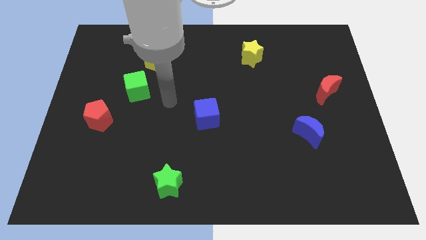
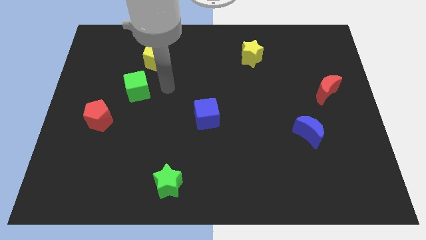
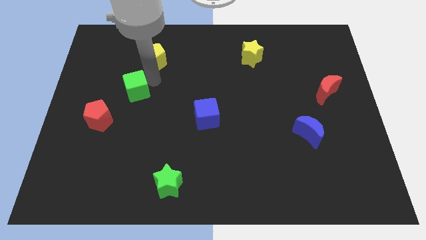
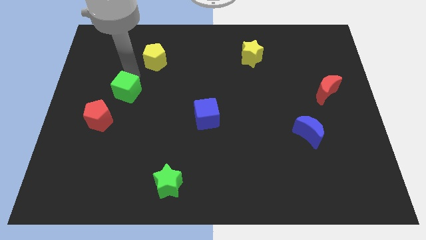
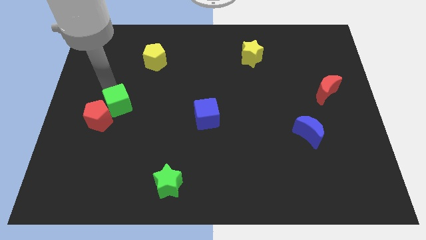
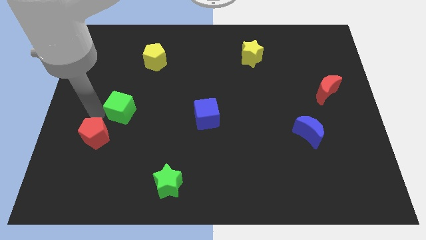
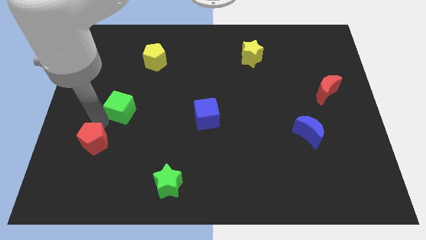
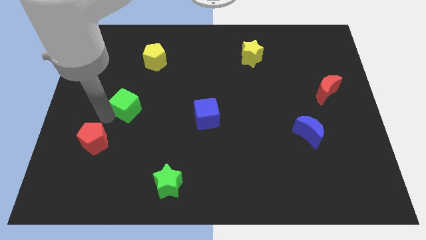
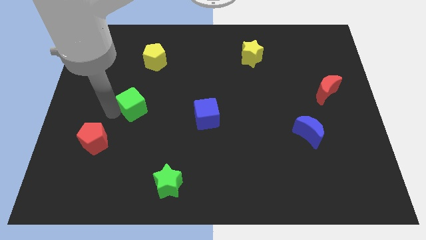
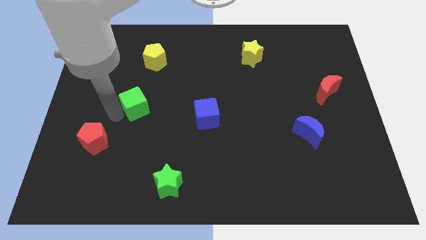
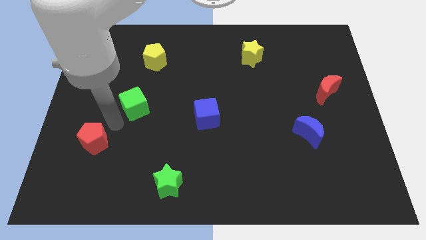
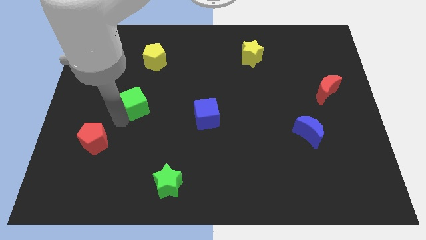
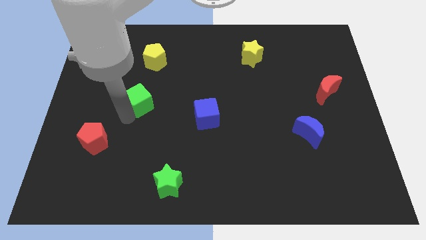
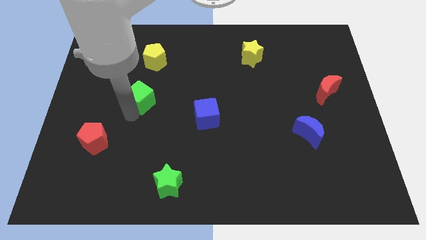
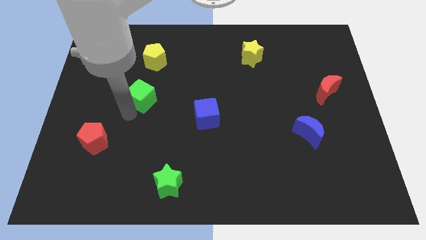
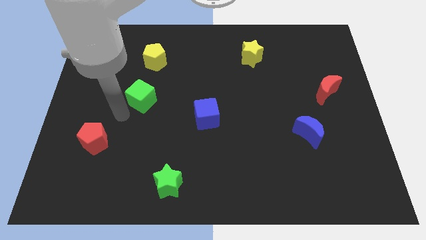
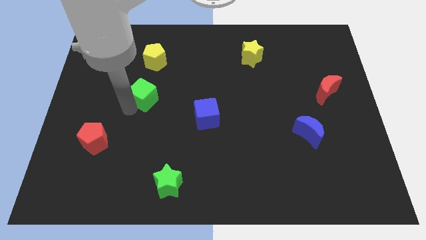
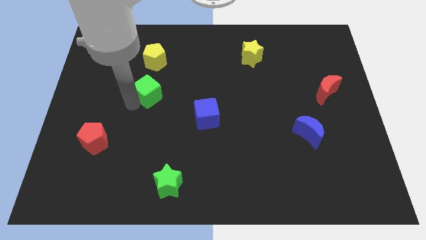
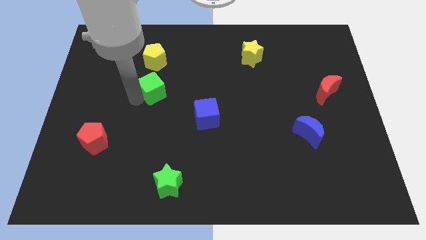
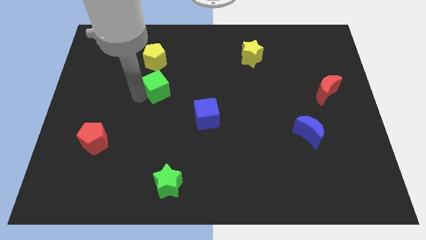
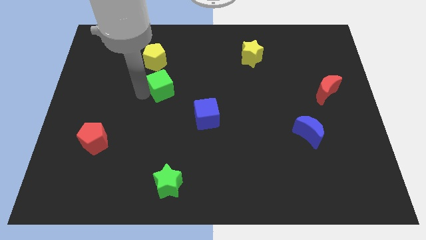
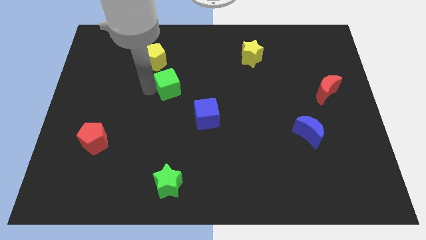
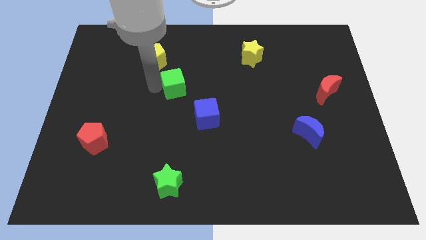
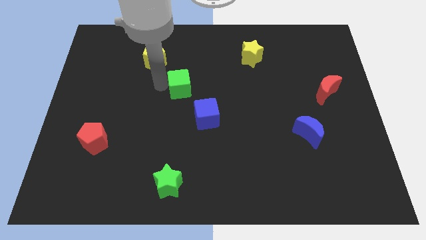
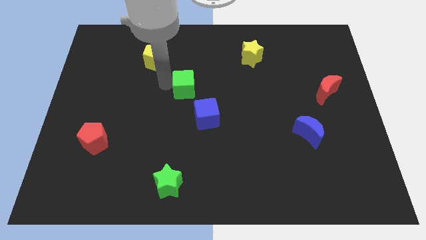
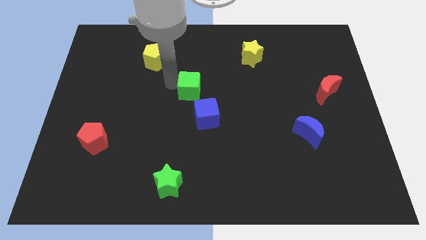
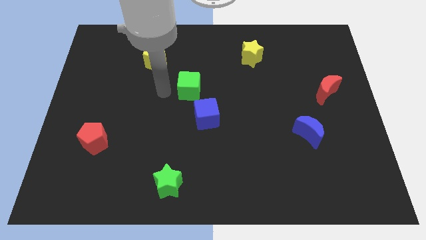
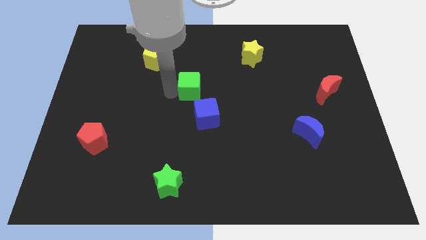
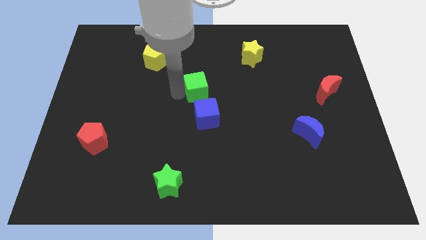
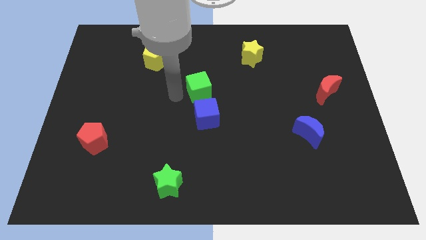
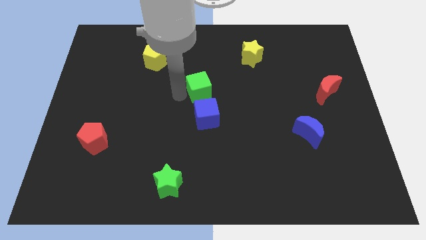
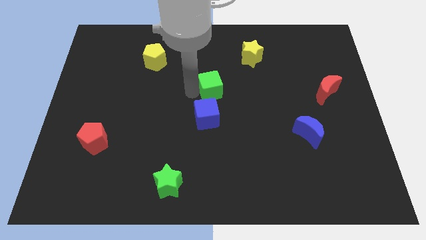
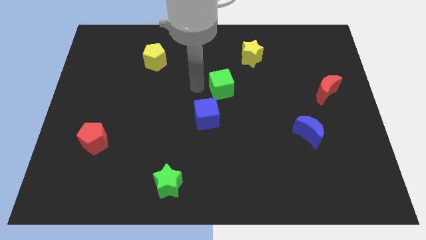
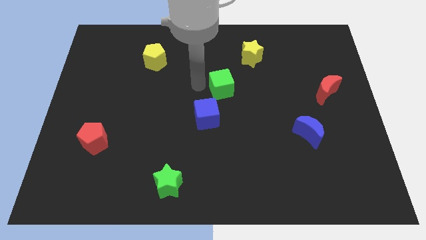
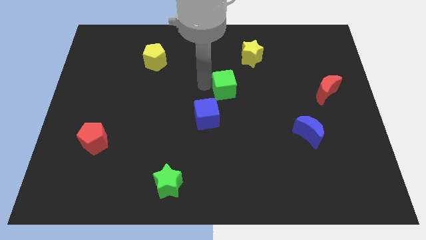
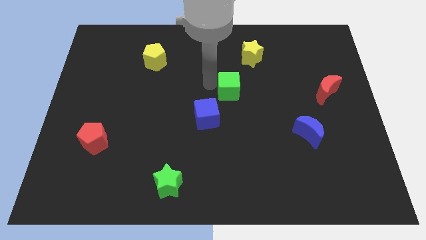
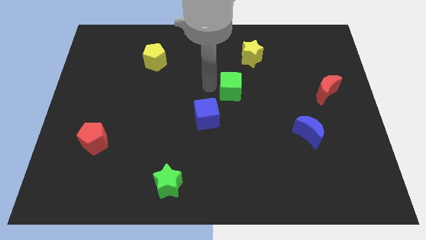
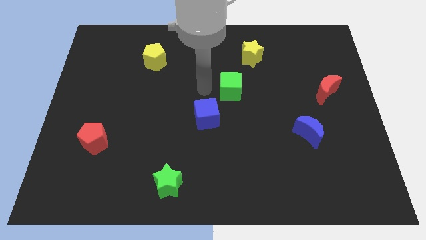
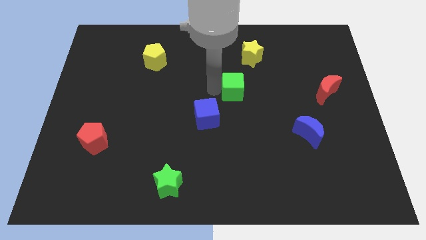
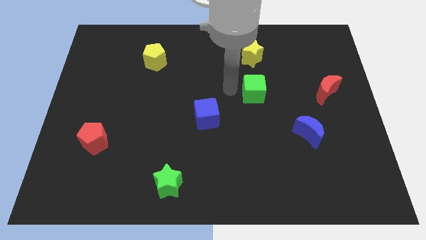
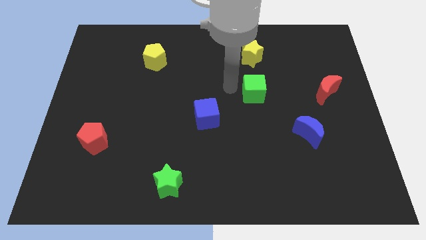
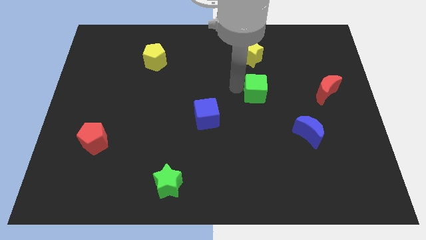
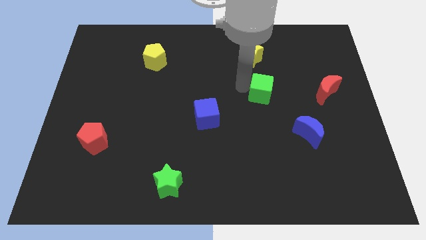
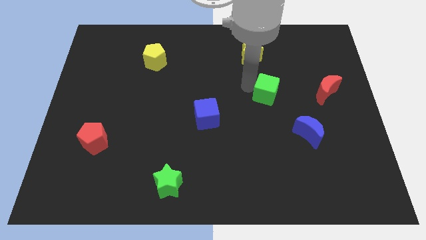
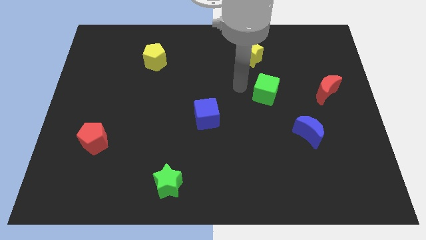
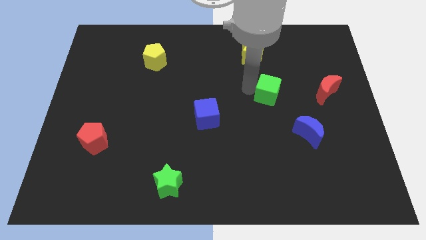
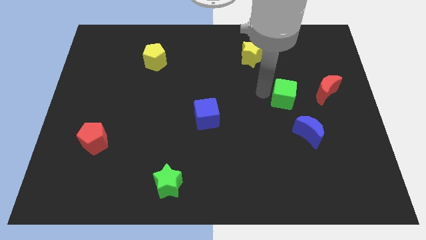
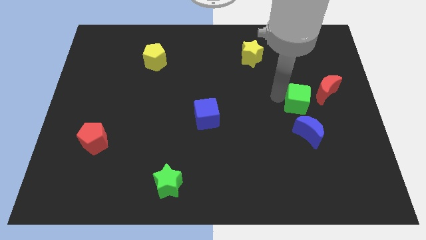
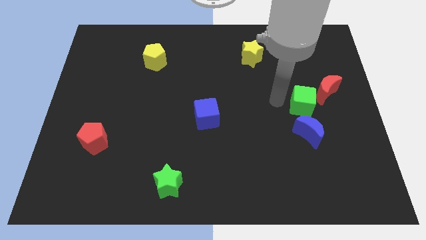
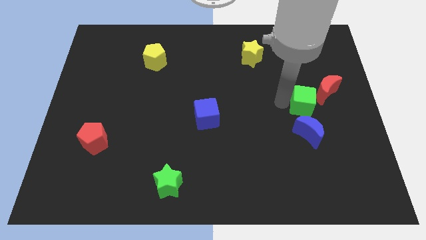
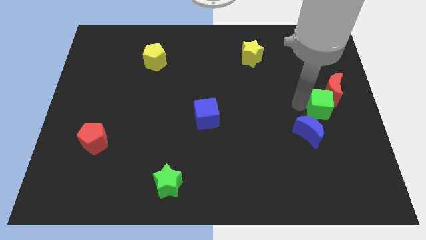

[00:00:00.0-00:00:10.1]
move the green cube to the right side of the board

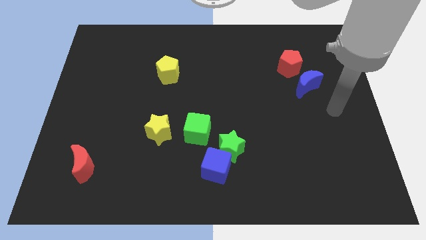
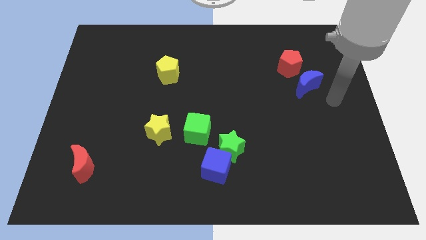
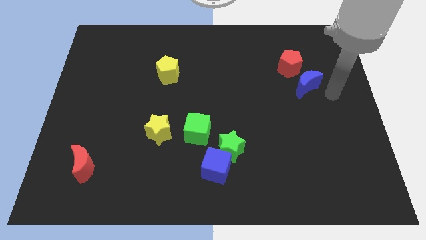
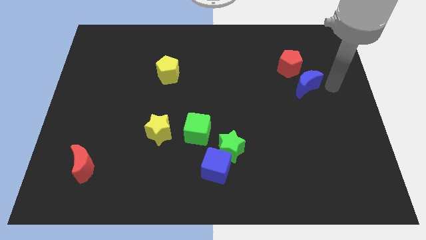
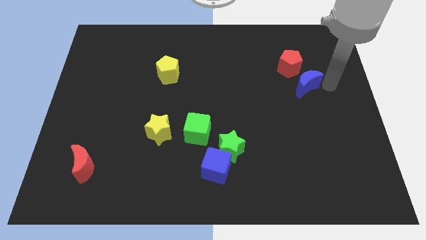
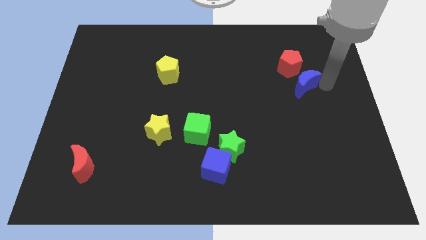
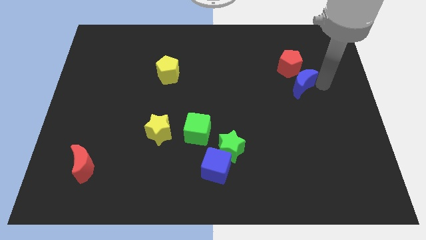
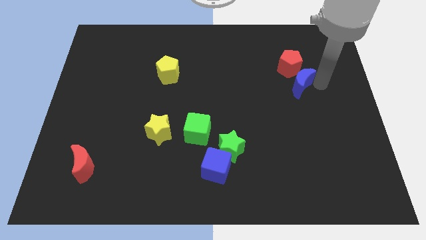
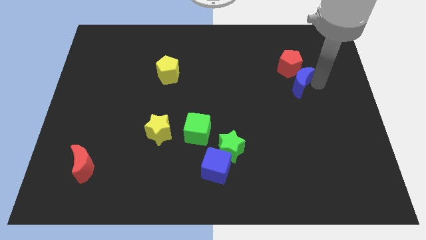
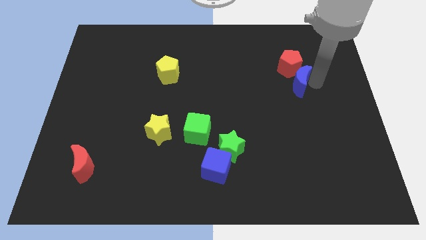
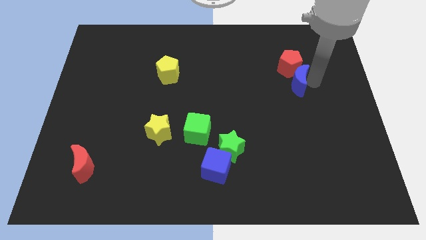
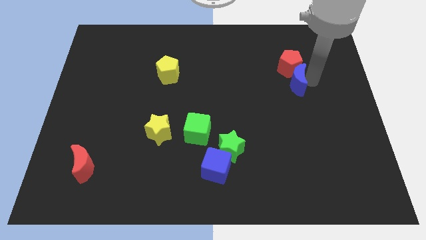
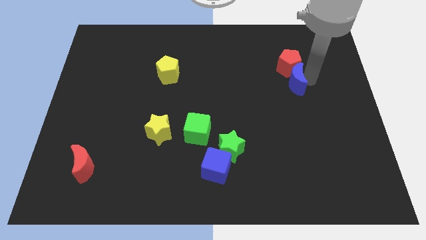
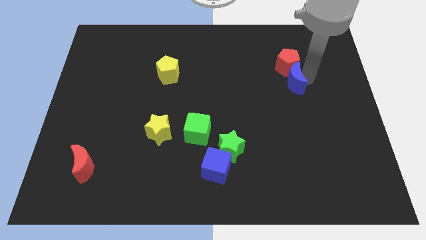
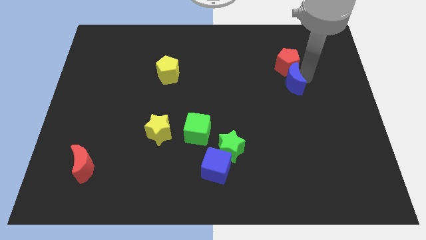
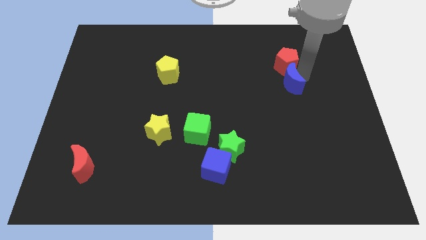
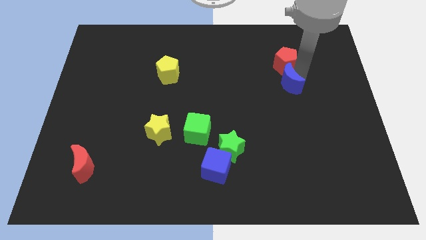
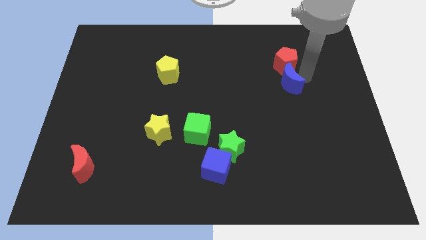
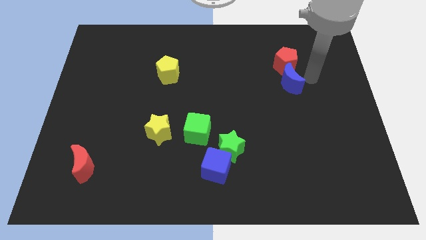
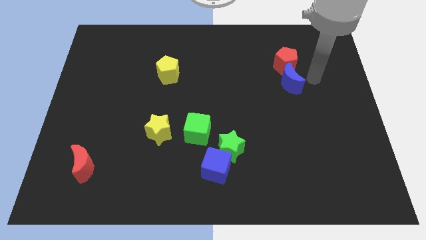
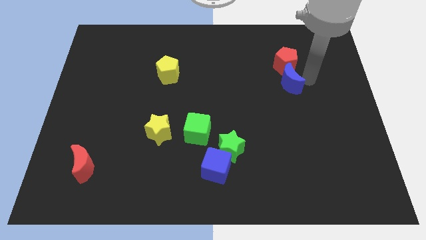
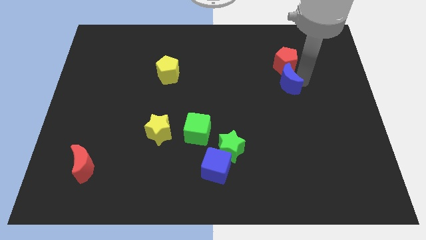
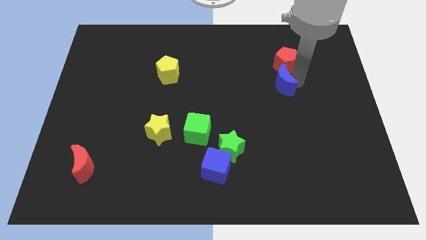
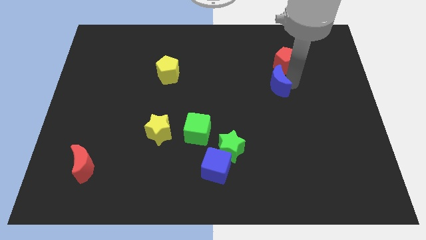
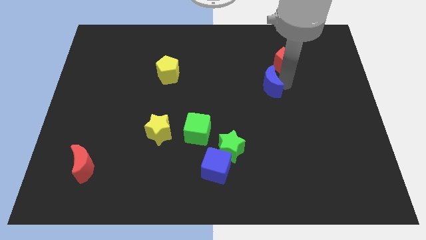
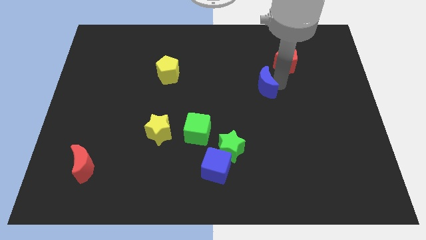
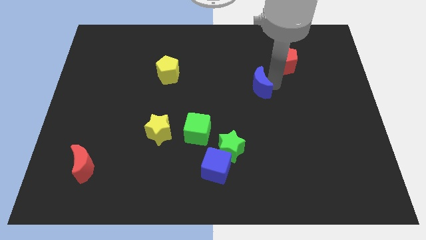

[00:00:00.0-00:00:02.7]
push the blue moon to the center of the board
